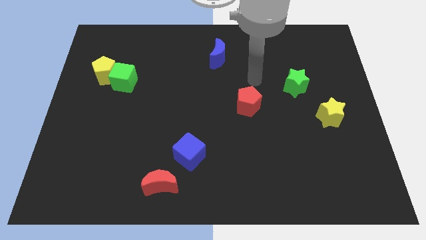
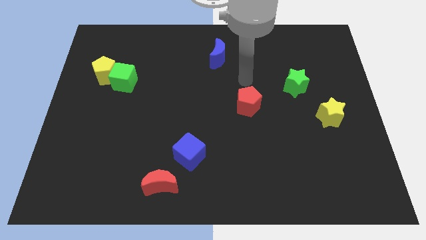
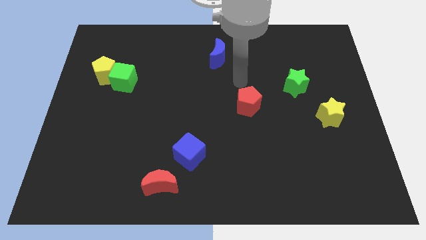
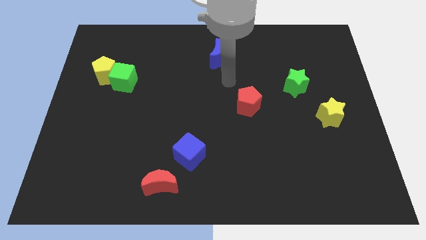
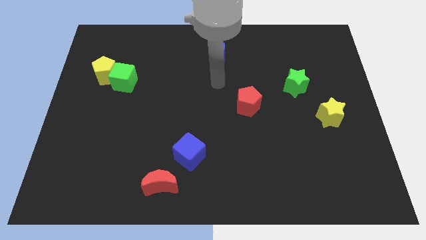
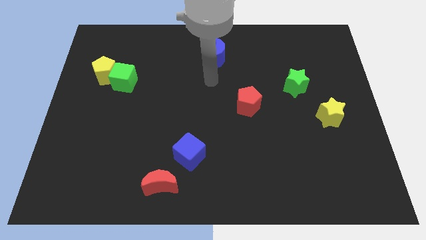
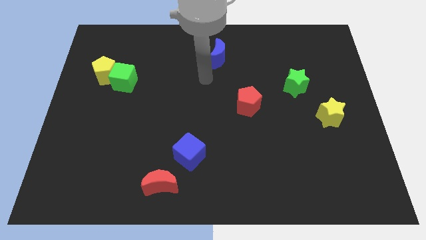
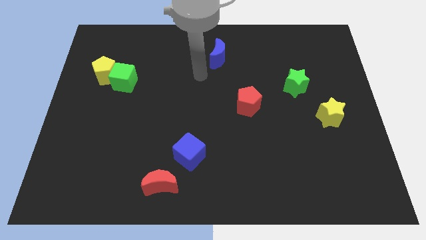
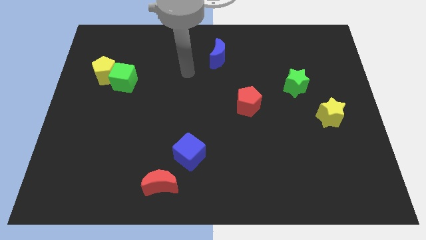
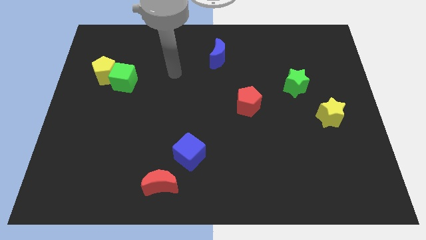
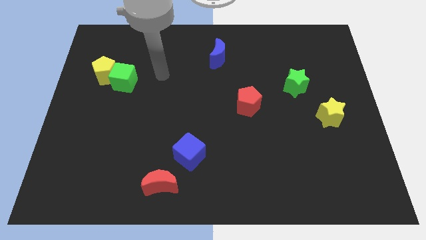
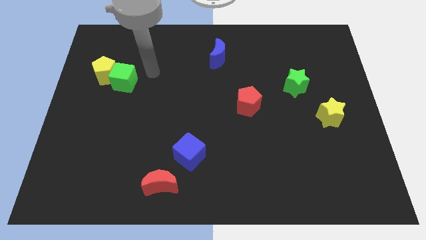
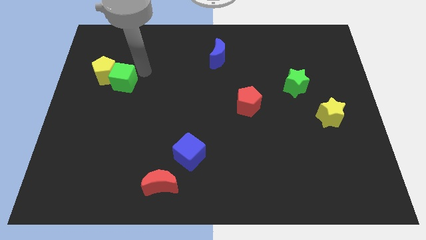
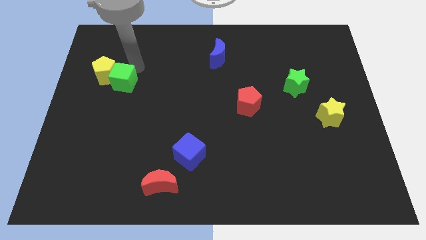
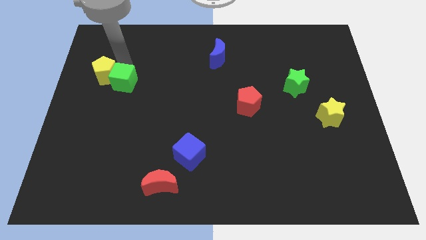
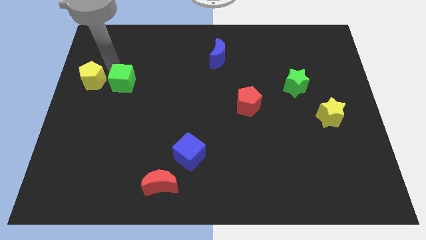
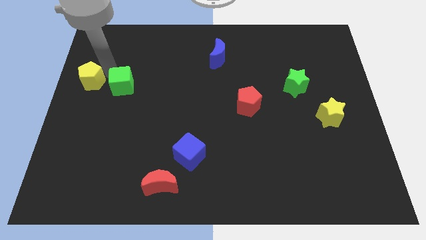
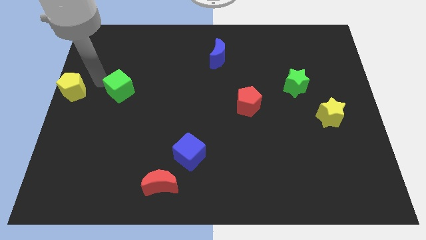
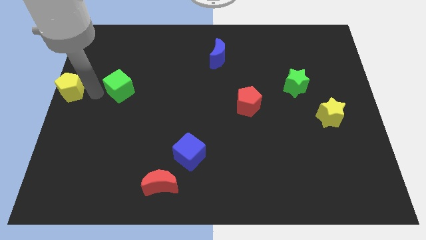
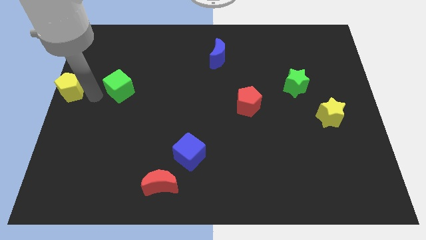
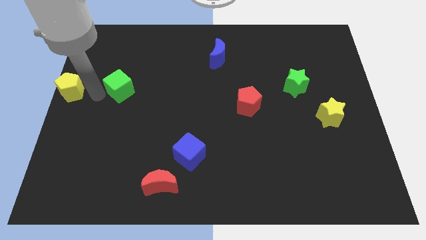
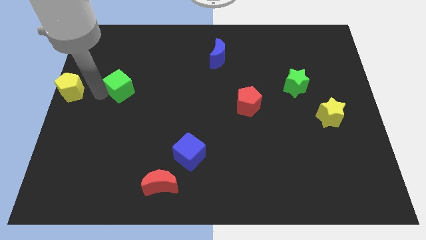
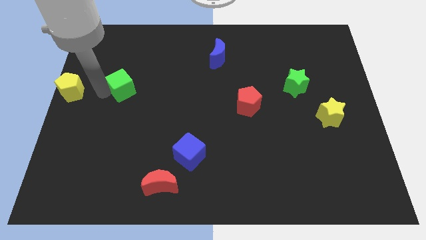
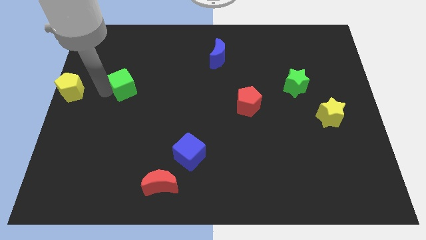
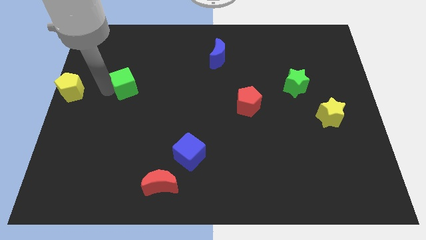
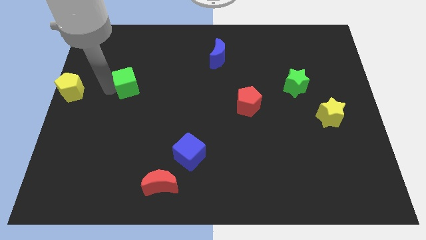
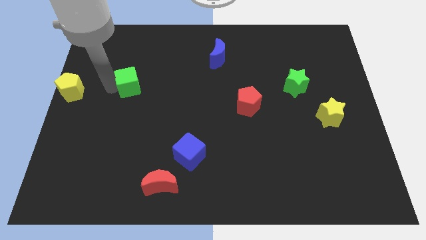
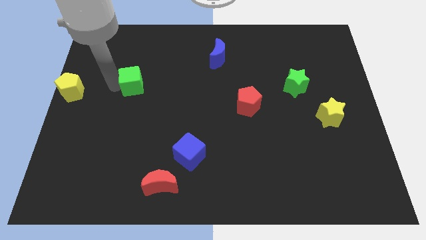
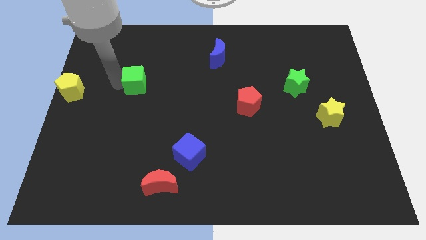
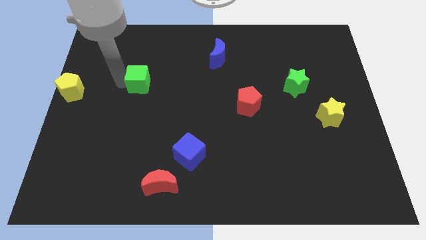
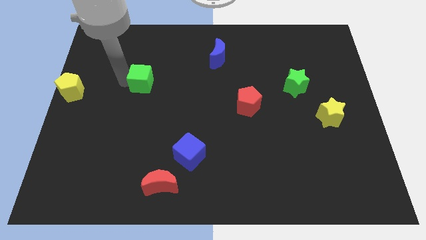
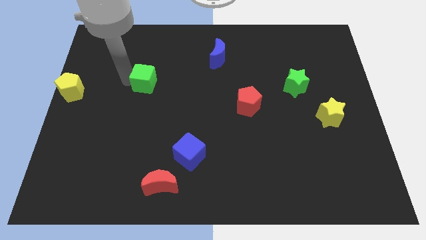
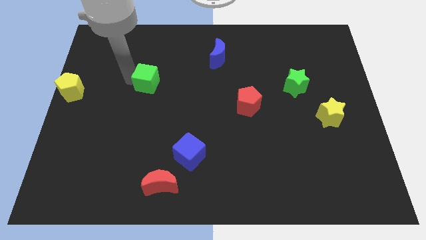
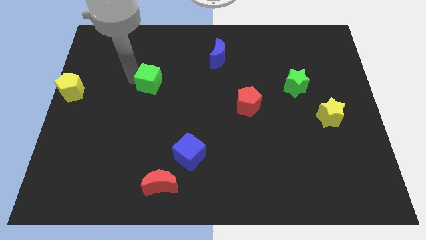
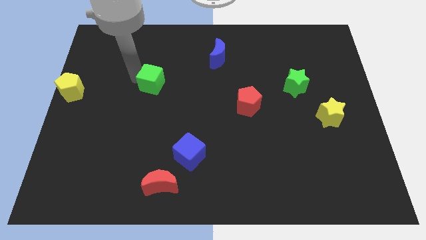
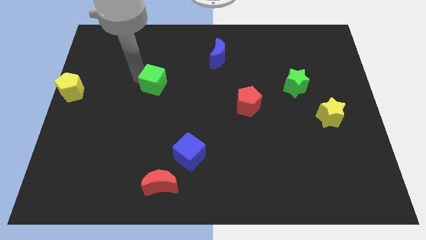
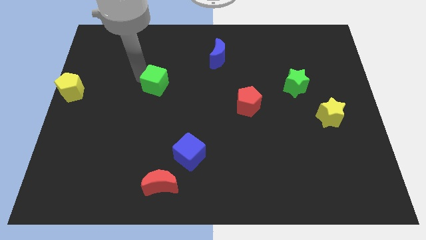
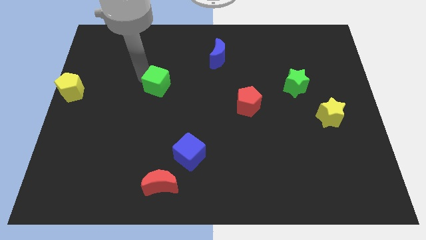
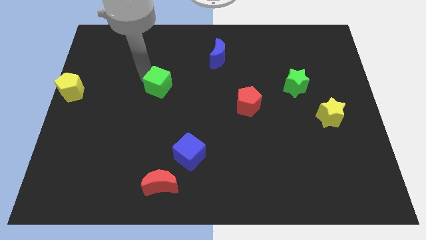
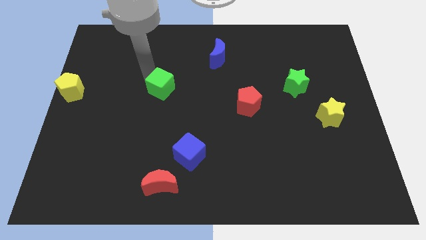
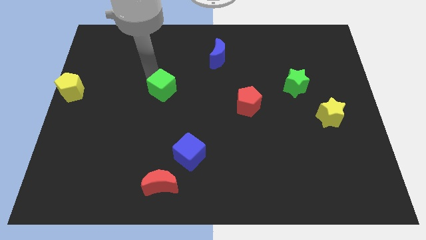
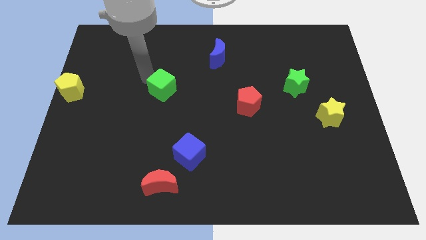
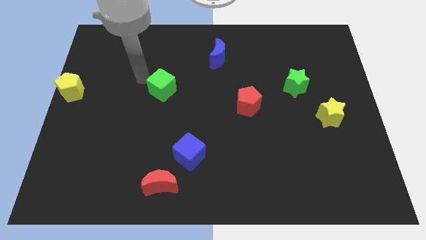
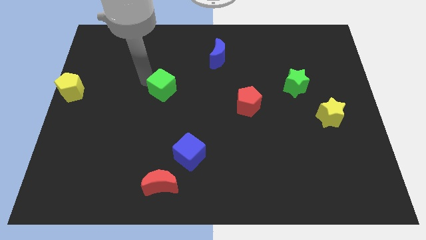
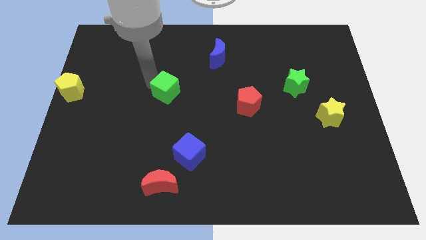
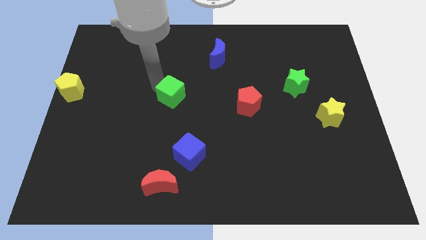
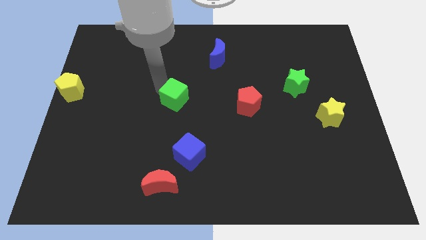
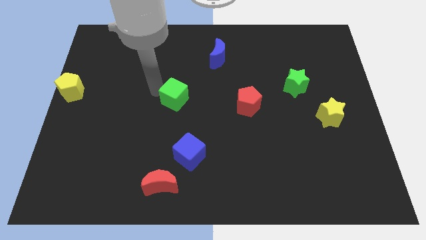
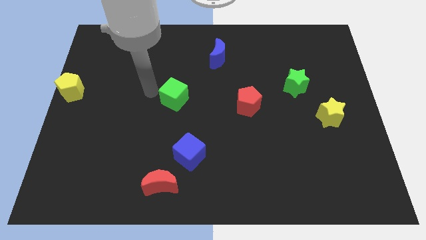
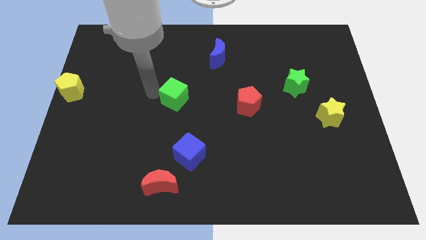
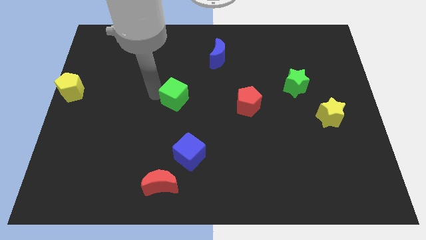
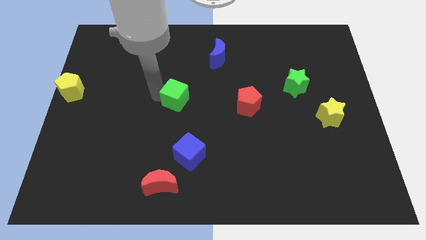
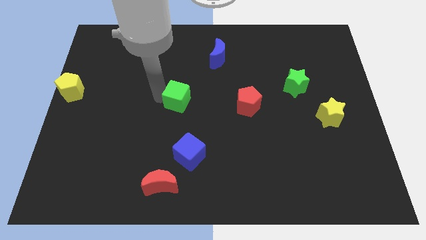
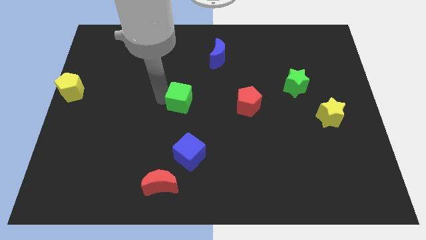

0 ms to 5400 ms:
push the green cube to the left of the red pentagon

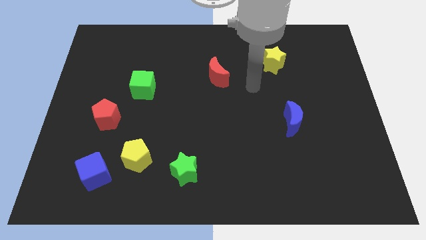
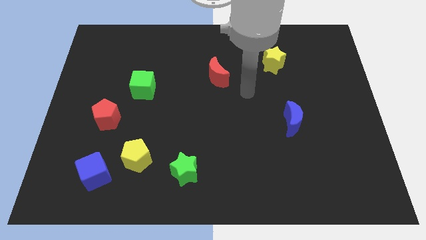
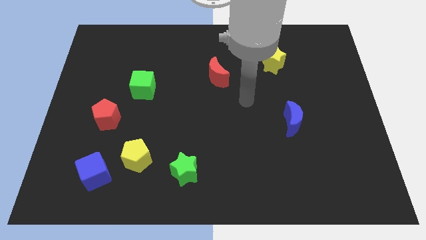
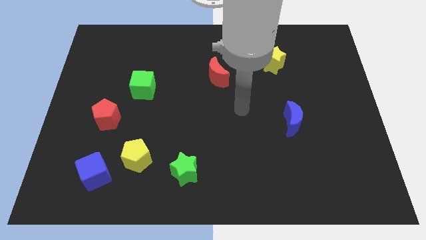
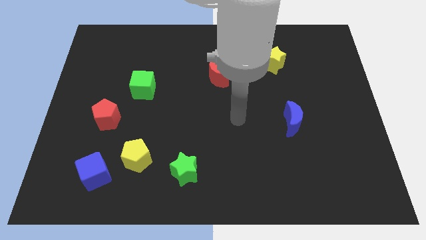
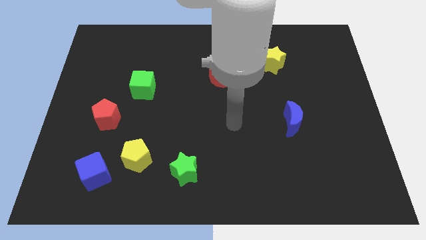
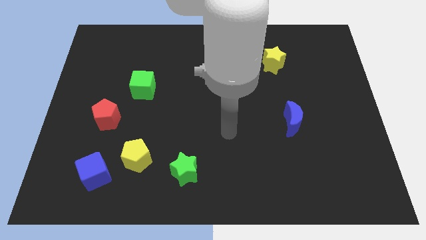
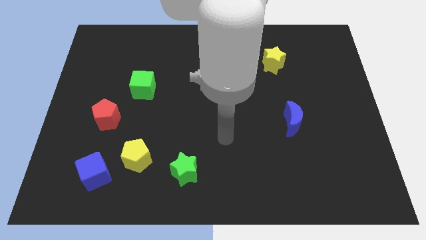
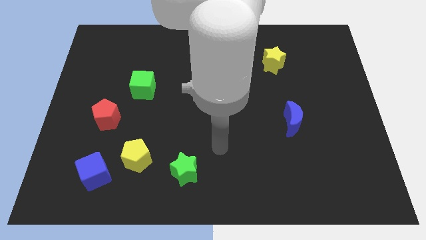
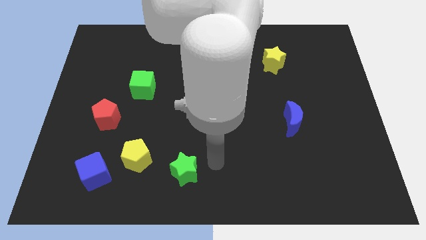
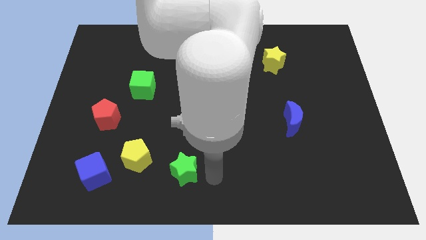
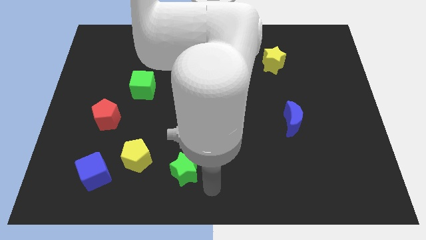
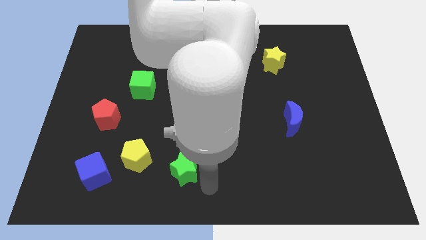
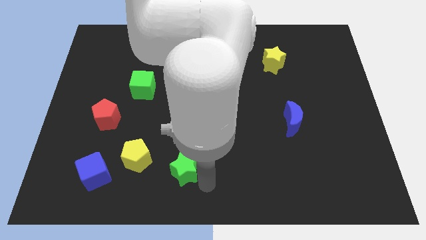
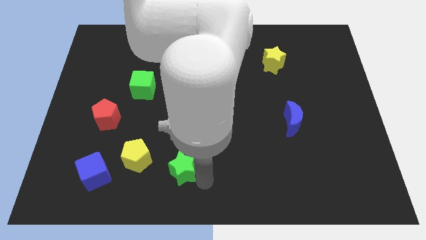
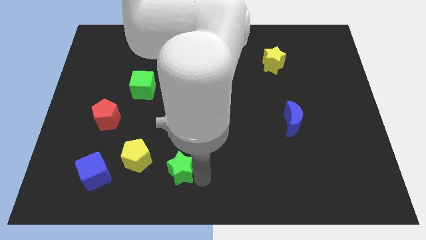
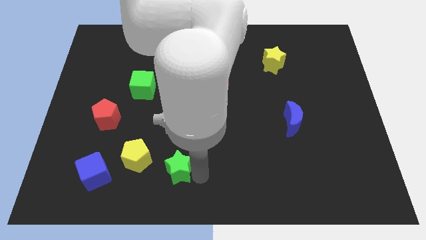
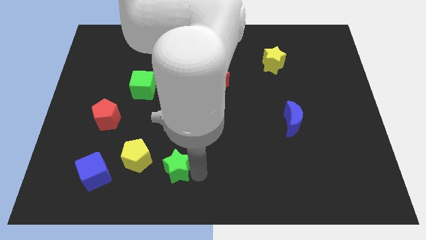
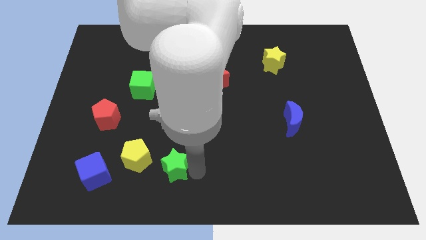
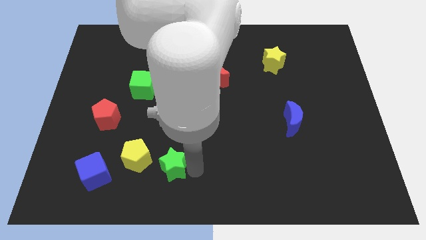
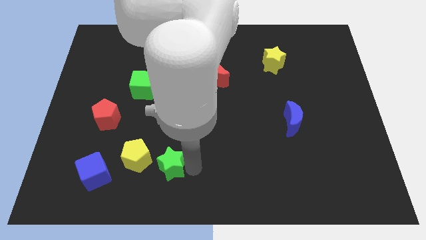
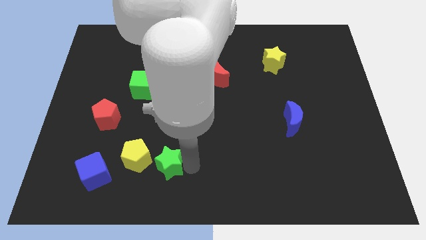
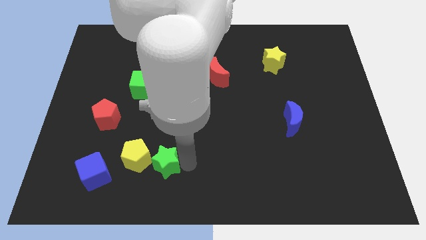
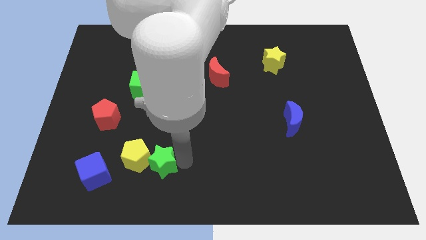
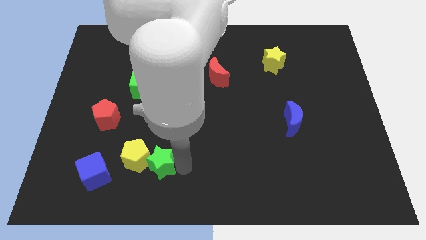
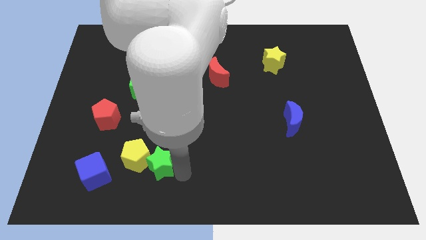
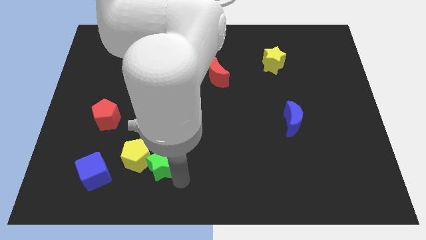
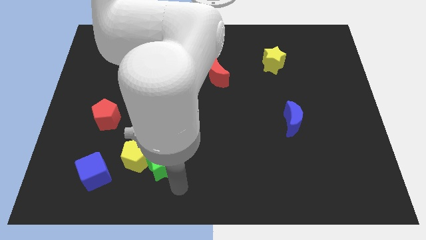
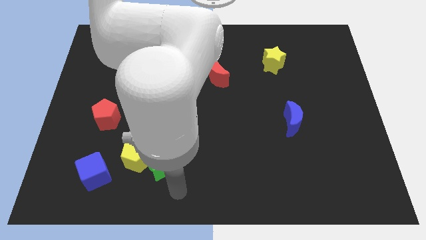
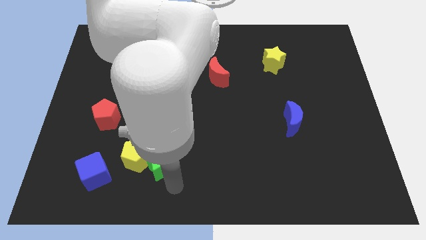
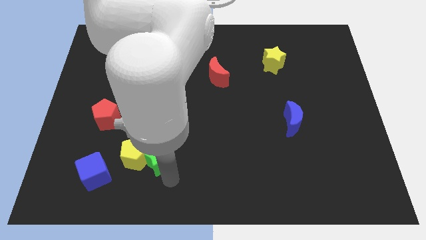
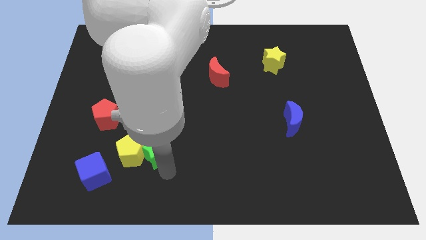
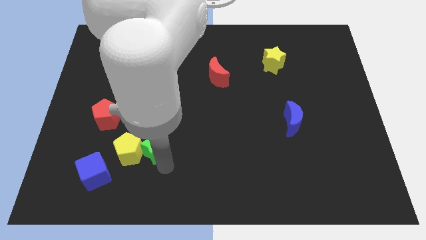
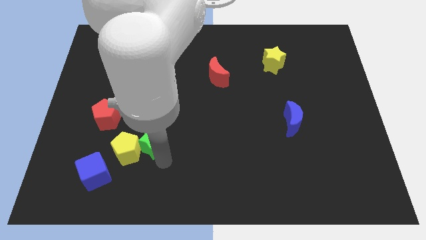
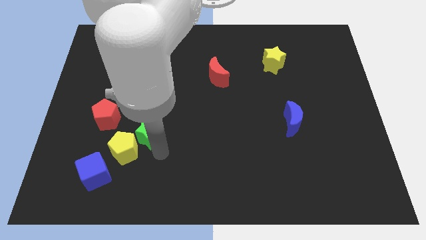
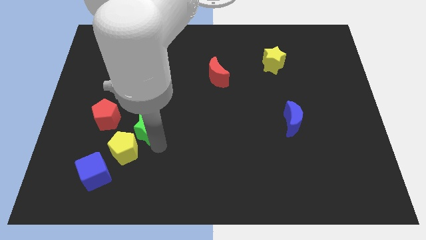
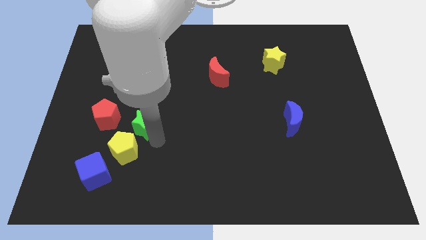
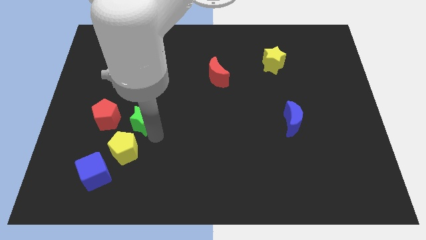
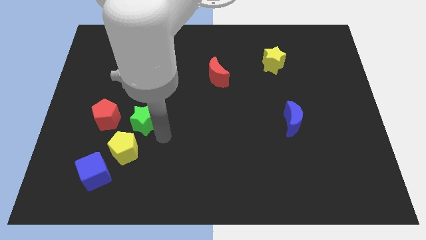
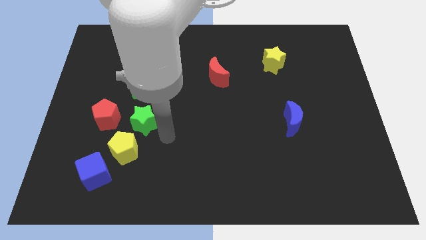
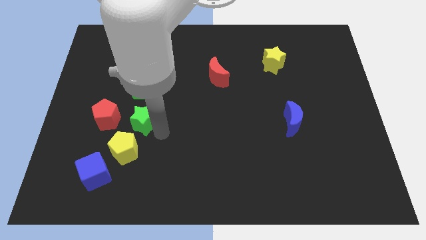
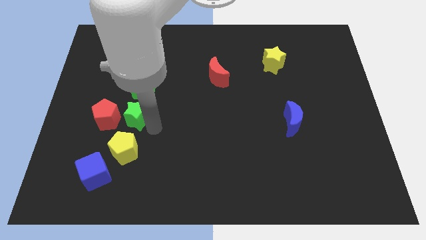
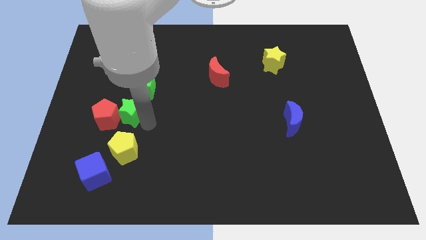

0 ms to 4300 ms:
move the green star to the bottom left of the green cube
